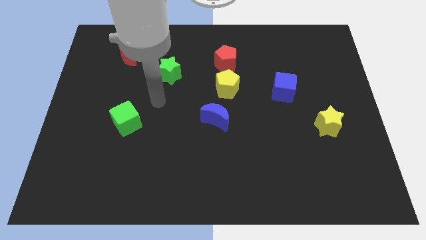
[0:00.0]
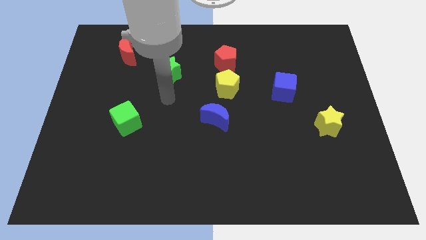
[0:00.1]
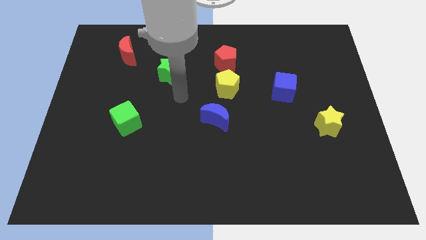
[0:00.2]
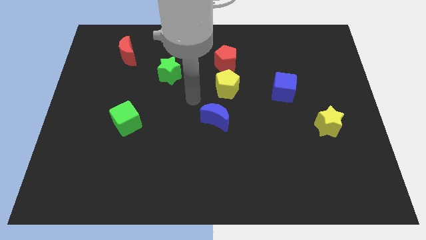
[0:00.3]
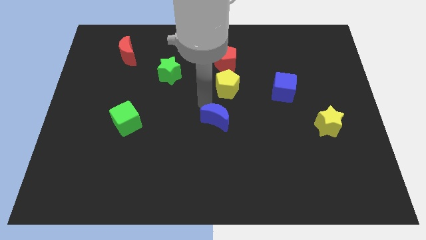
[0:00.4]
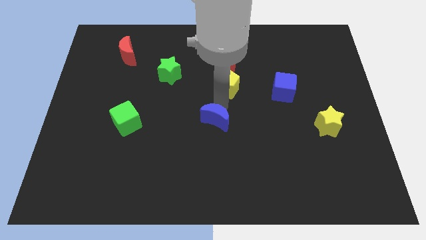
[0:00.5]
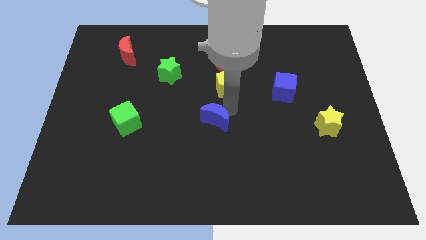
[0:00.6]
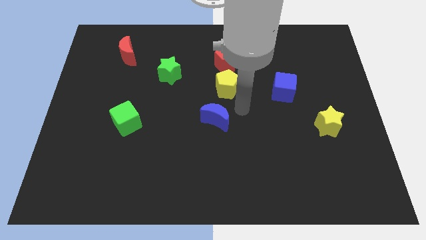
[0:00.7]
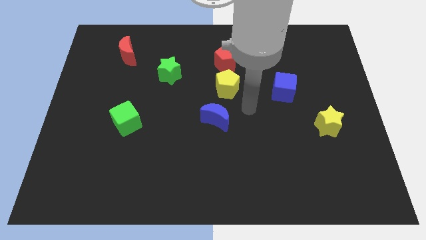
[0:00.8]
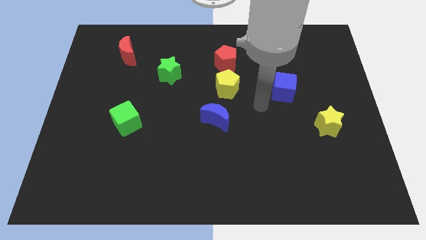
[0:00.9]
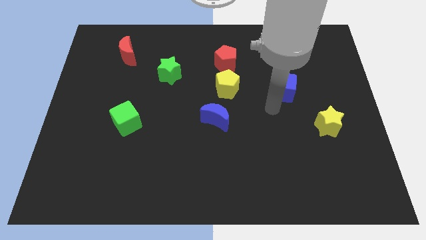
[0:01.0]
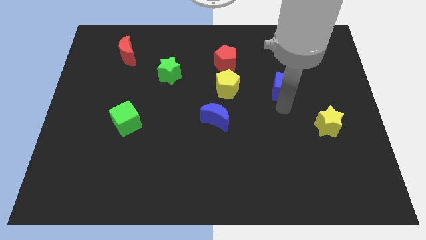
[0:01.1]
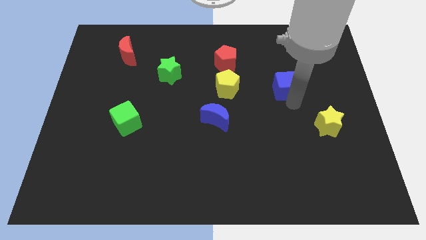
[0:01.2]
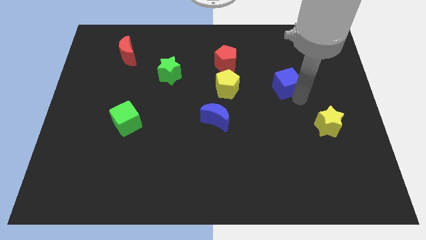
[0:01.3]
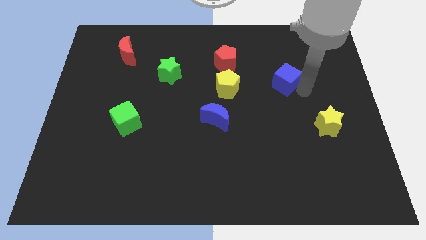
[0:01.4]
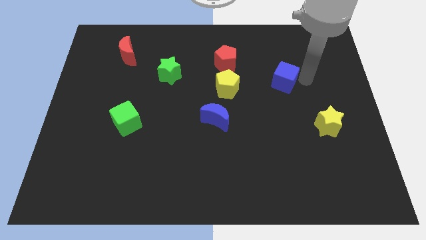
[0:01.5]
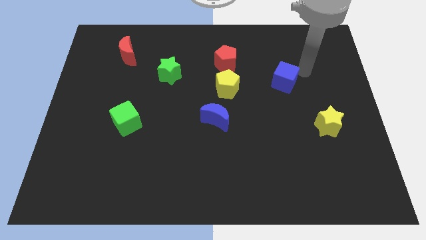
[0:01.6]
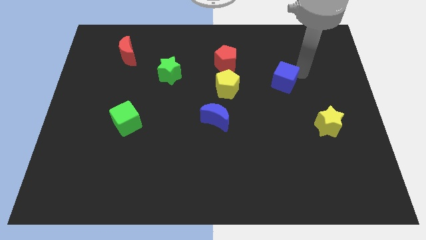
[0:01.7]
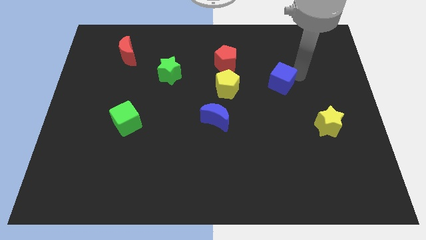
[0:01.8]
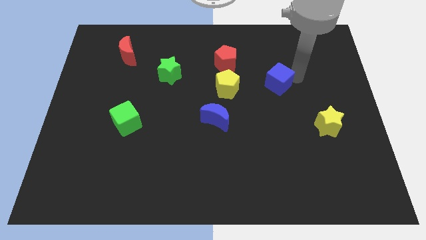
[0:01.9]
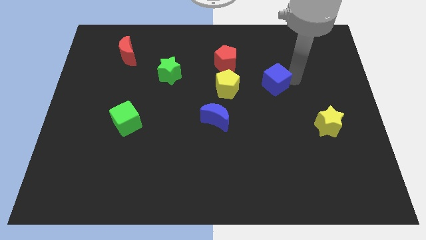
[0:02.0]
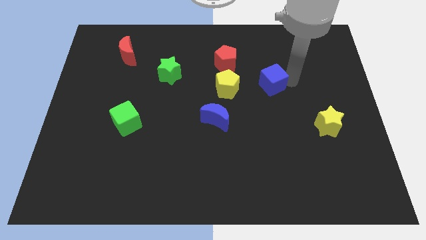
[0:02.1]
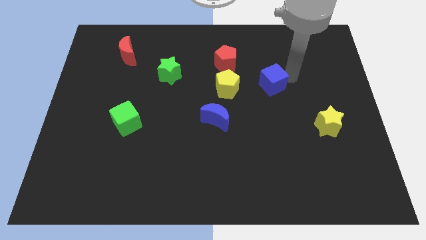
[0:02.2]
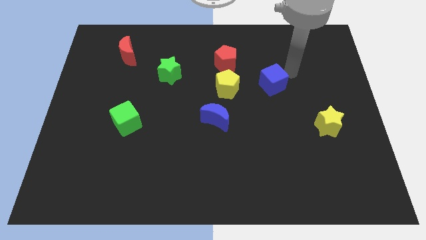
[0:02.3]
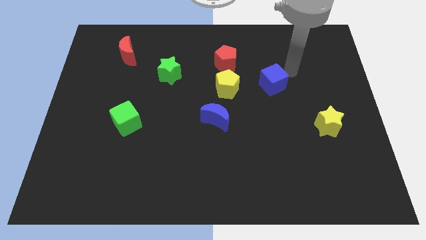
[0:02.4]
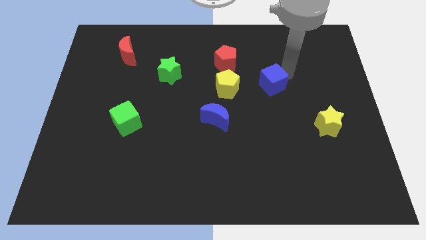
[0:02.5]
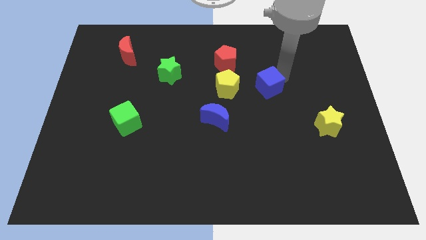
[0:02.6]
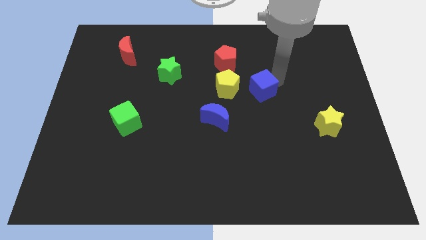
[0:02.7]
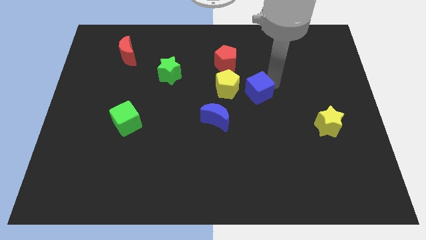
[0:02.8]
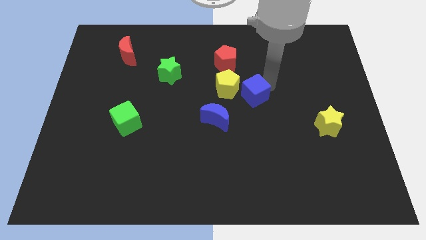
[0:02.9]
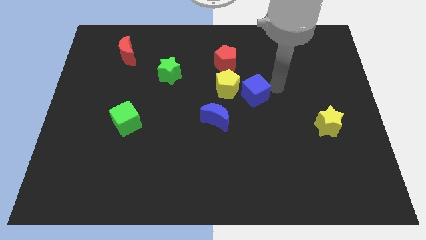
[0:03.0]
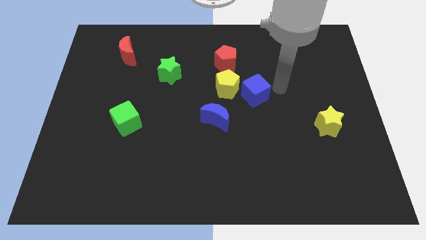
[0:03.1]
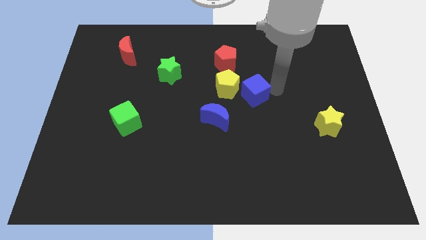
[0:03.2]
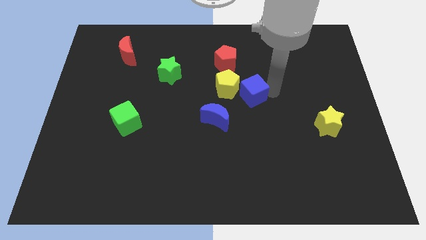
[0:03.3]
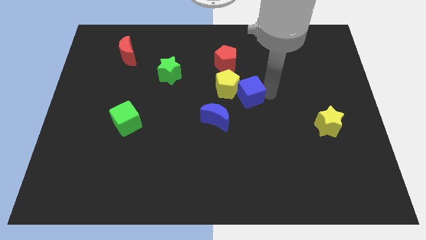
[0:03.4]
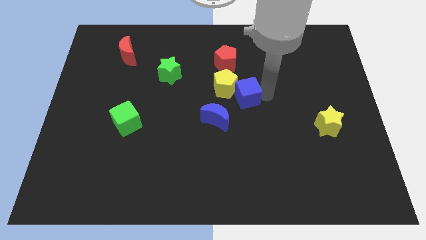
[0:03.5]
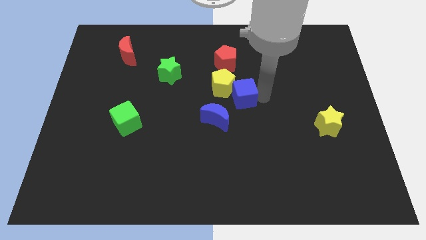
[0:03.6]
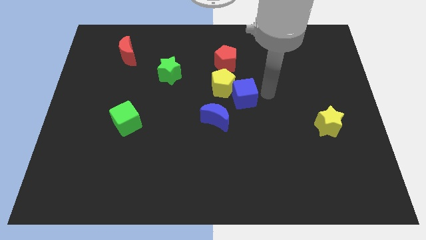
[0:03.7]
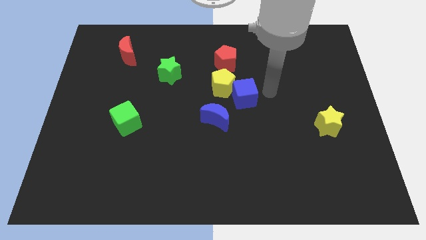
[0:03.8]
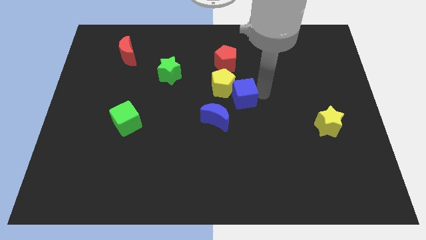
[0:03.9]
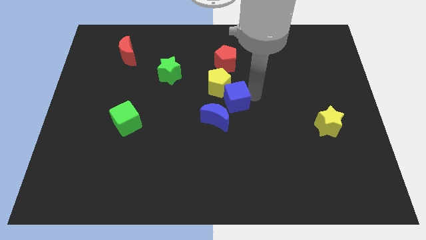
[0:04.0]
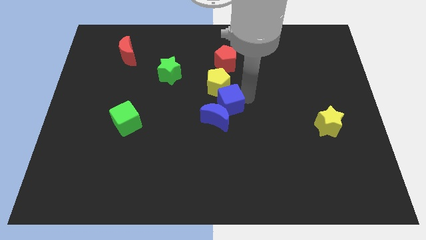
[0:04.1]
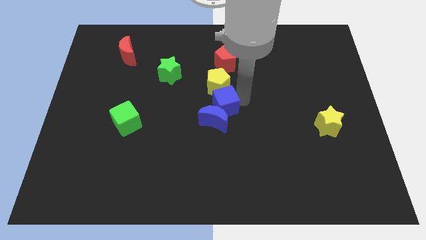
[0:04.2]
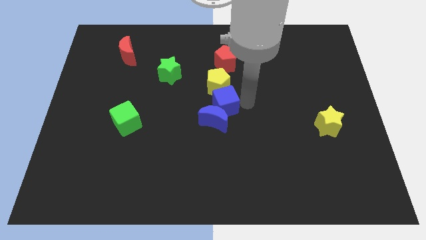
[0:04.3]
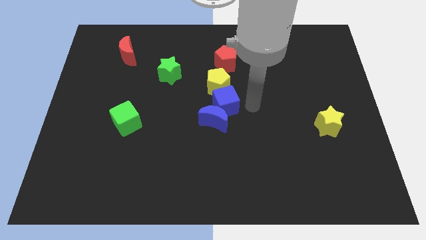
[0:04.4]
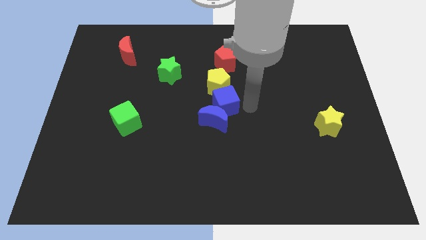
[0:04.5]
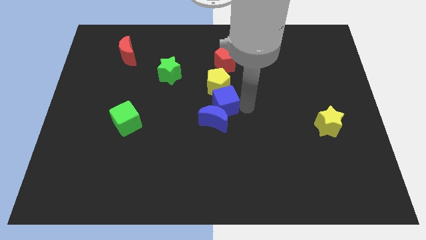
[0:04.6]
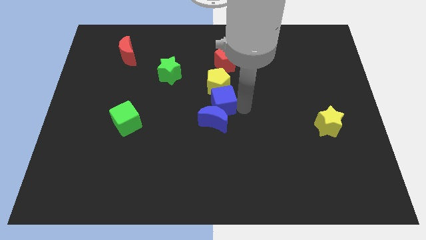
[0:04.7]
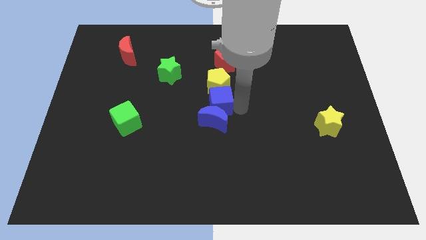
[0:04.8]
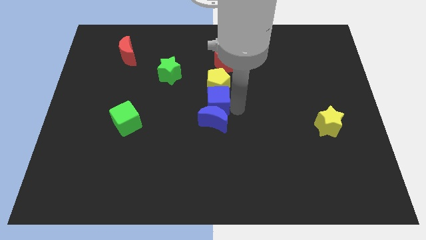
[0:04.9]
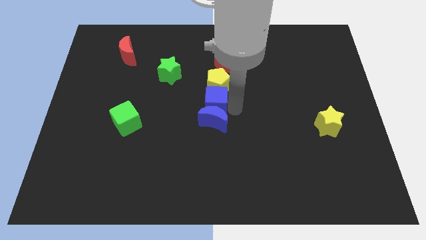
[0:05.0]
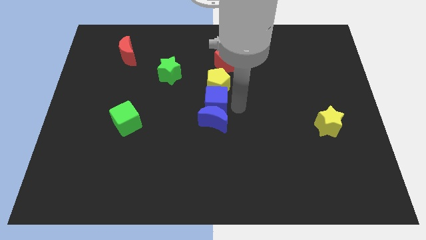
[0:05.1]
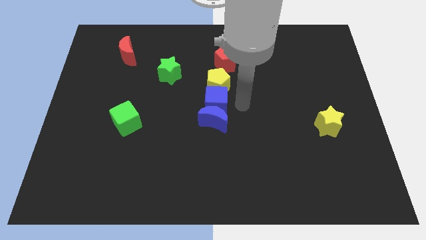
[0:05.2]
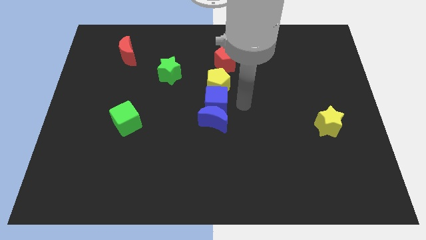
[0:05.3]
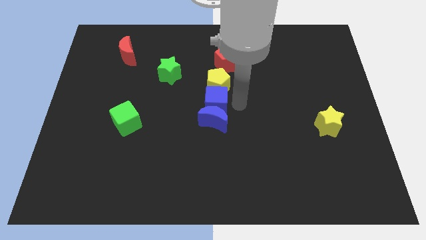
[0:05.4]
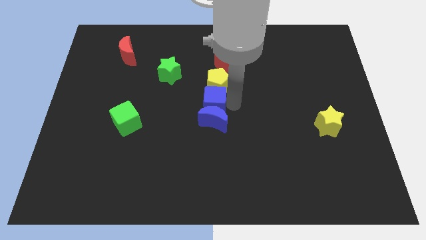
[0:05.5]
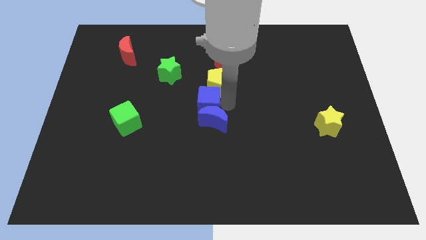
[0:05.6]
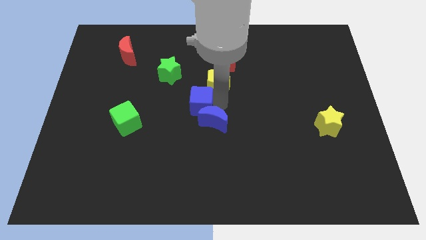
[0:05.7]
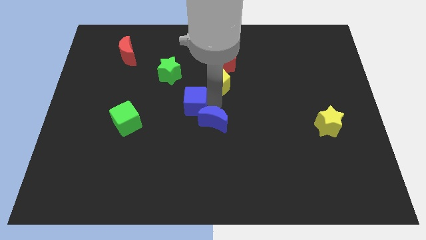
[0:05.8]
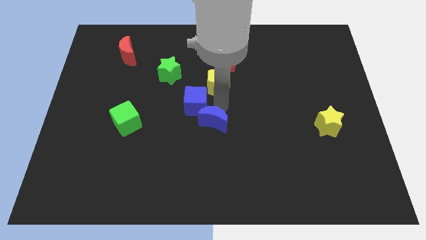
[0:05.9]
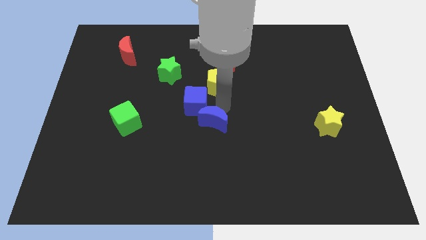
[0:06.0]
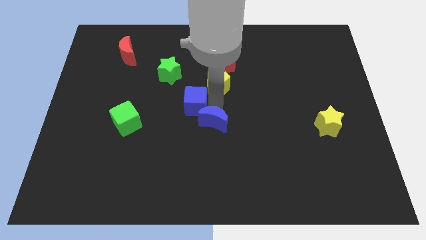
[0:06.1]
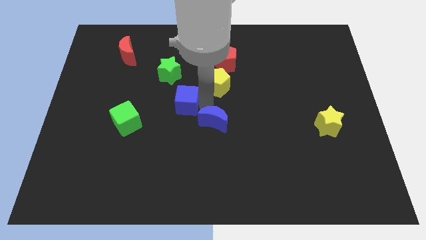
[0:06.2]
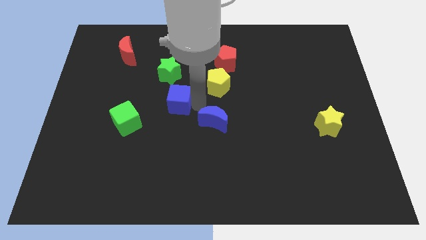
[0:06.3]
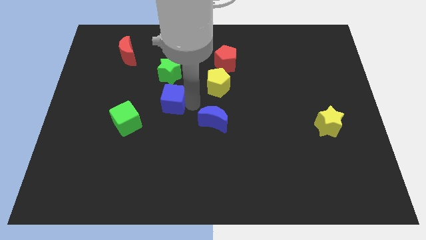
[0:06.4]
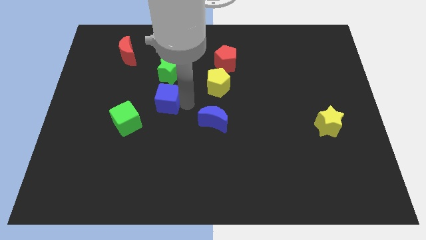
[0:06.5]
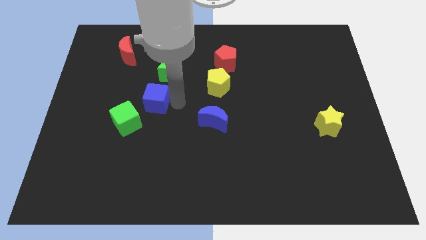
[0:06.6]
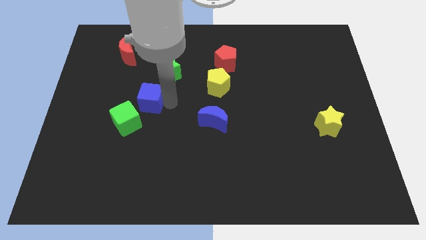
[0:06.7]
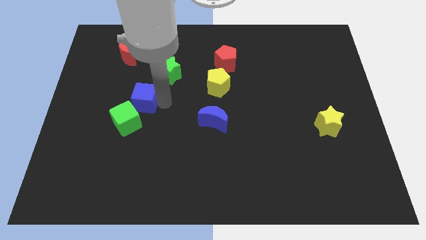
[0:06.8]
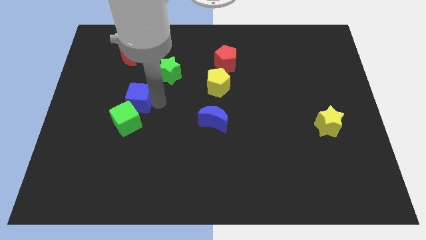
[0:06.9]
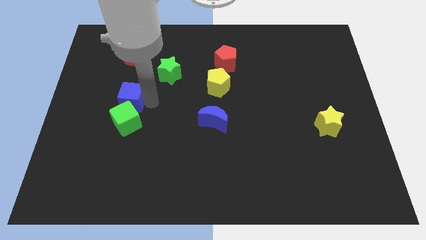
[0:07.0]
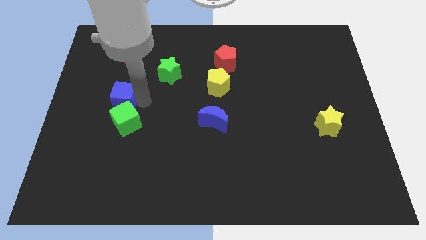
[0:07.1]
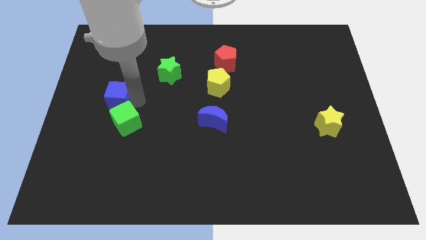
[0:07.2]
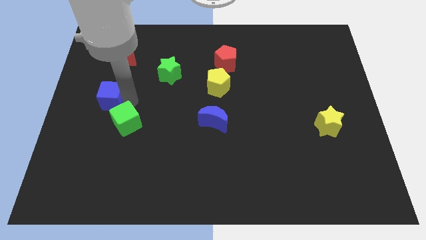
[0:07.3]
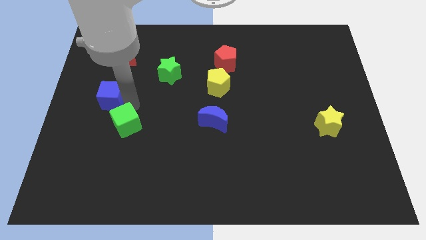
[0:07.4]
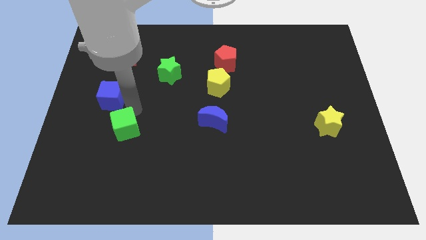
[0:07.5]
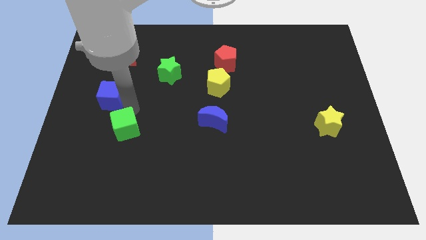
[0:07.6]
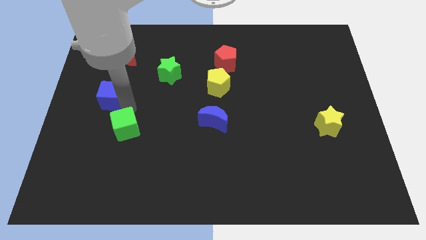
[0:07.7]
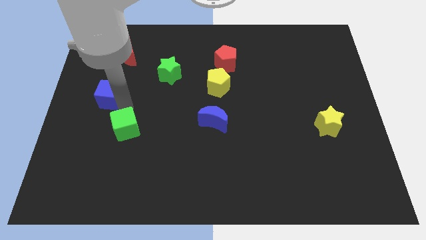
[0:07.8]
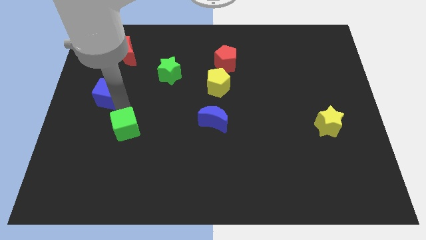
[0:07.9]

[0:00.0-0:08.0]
move the blue cube to the left side of the board
